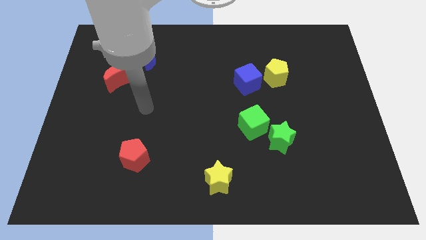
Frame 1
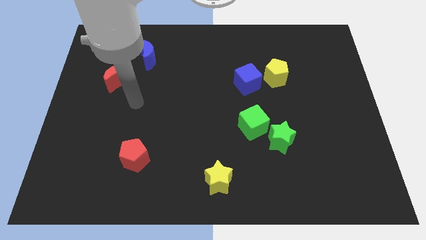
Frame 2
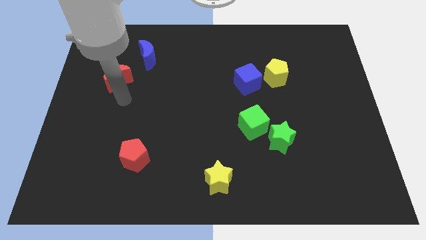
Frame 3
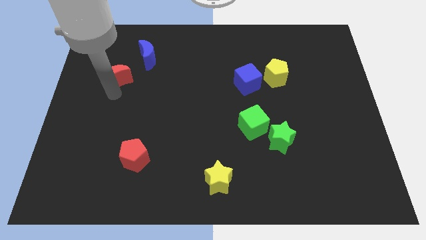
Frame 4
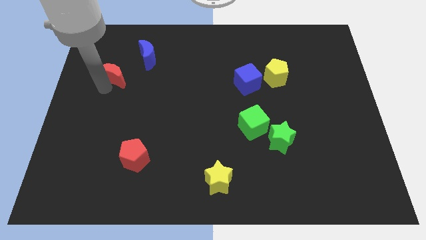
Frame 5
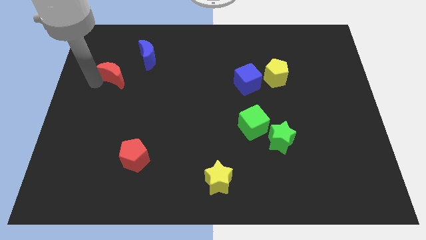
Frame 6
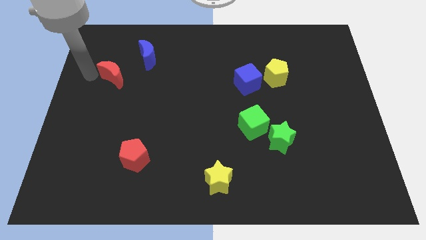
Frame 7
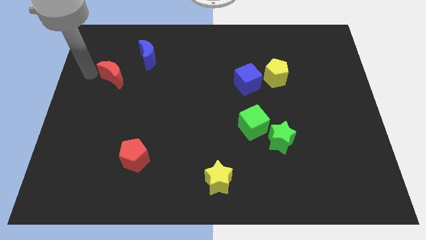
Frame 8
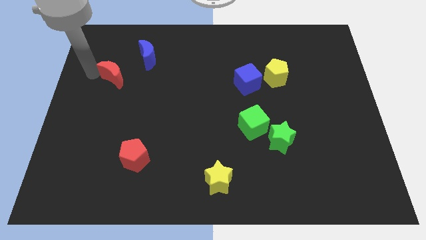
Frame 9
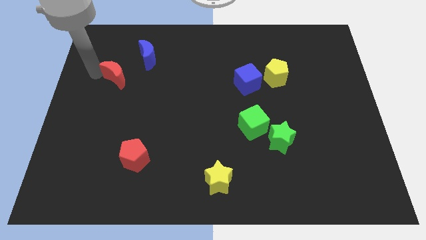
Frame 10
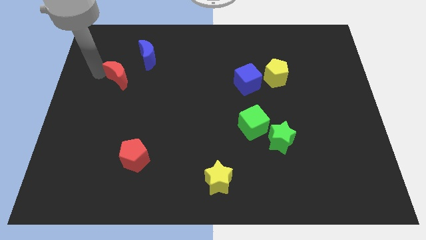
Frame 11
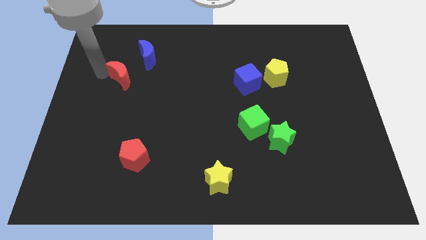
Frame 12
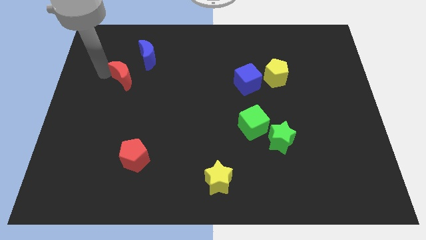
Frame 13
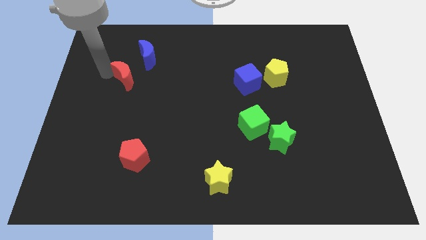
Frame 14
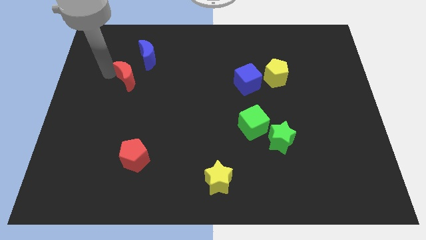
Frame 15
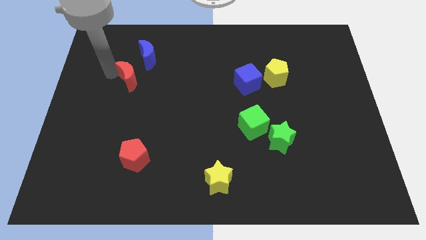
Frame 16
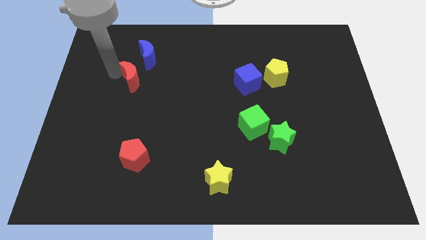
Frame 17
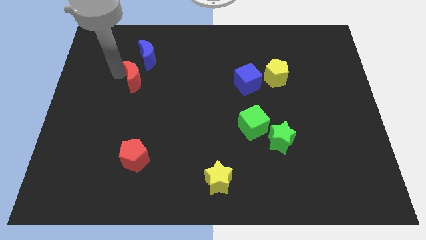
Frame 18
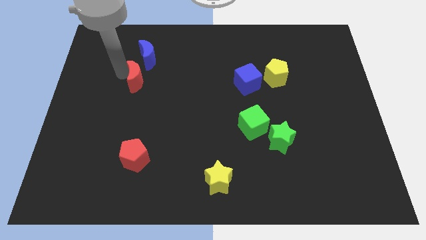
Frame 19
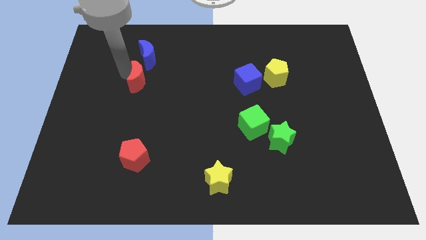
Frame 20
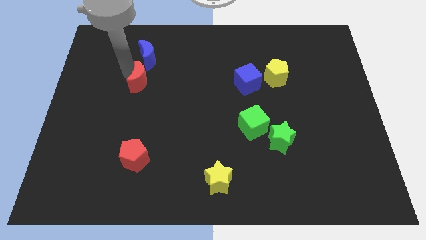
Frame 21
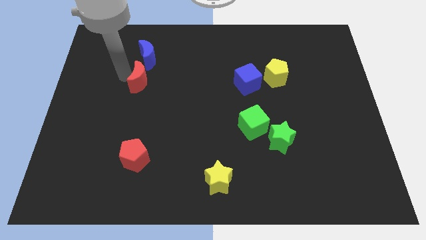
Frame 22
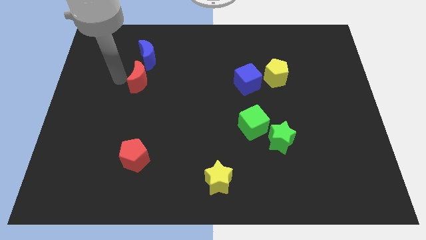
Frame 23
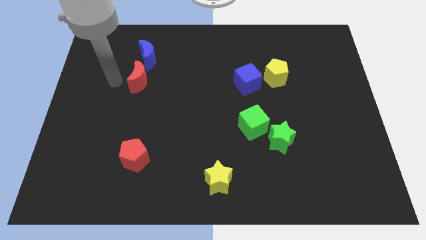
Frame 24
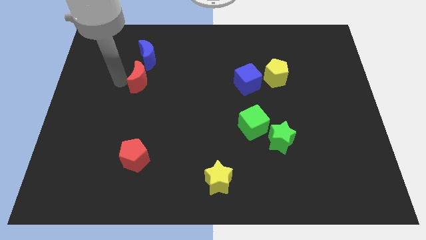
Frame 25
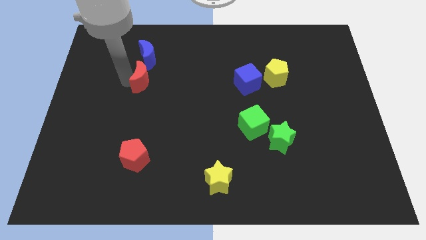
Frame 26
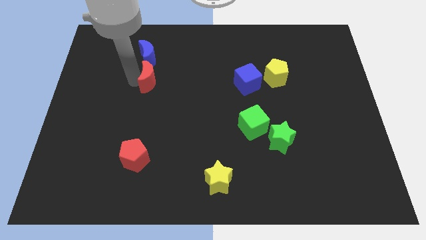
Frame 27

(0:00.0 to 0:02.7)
move the red moon a little right

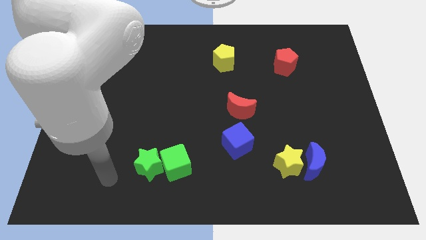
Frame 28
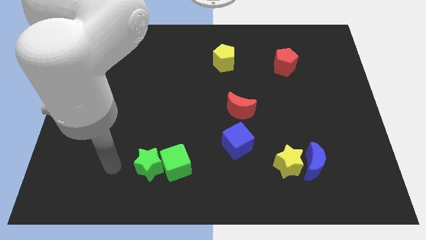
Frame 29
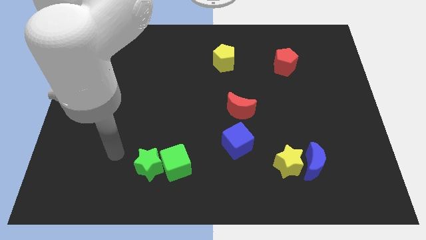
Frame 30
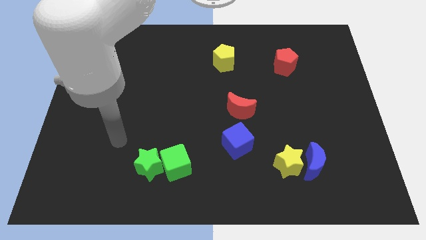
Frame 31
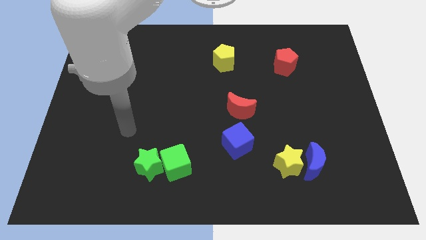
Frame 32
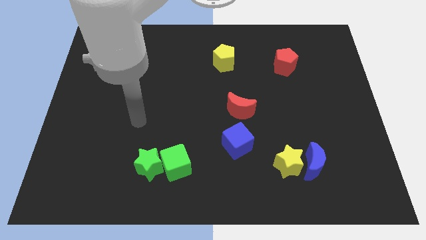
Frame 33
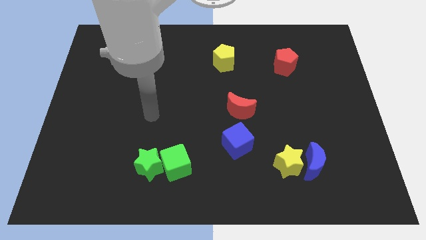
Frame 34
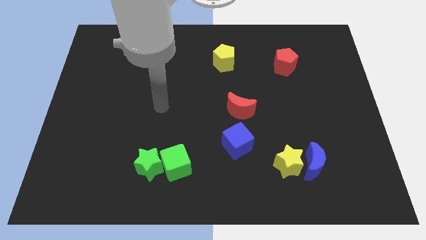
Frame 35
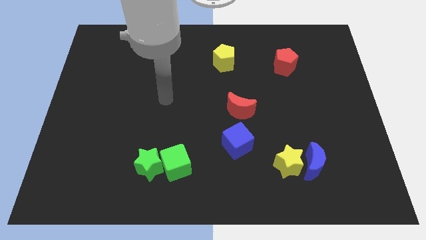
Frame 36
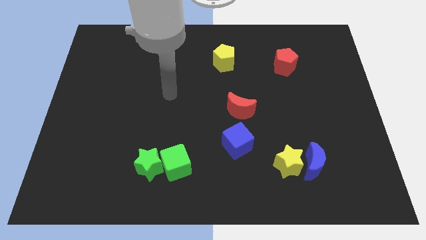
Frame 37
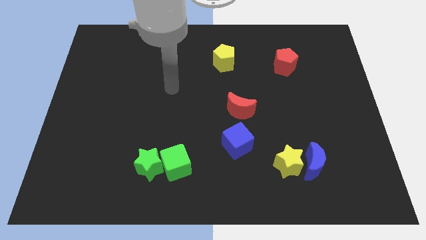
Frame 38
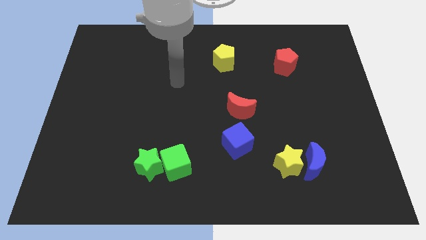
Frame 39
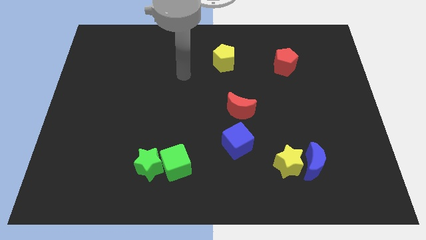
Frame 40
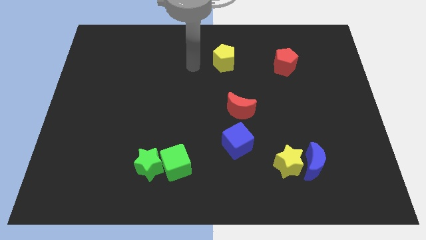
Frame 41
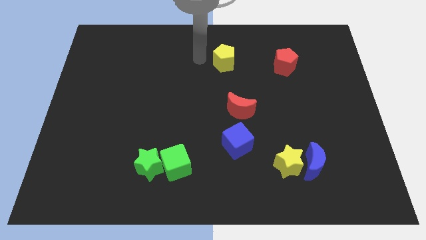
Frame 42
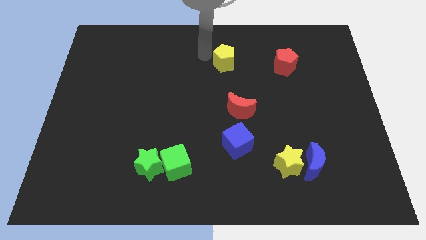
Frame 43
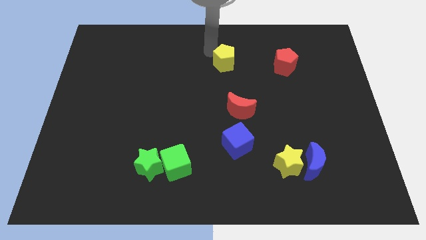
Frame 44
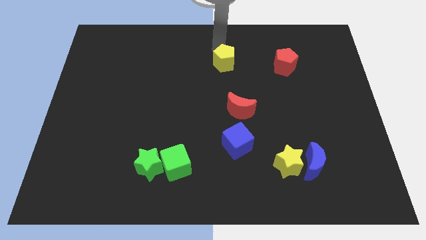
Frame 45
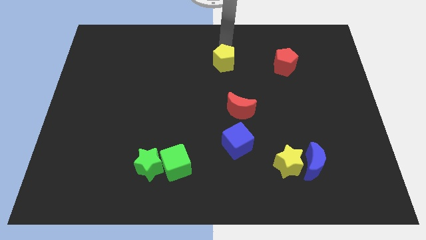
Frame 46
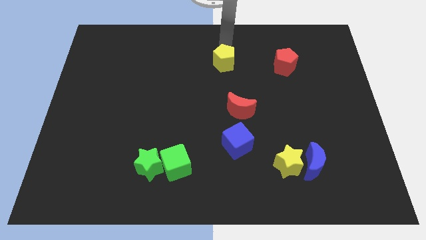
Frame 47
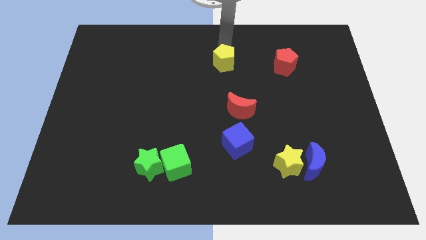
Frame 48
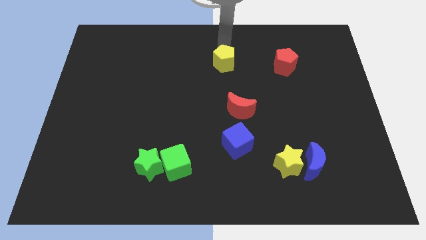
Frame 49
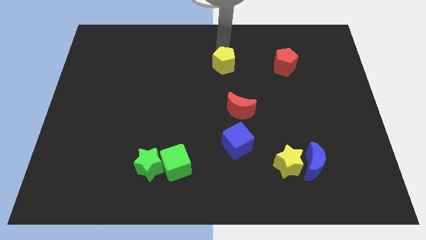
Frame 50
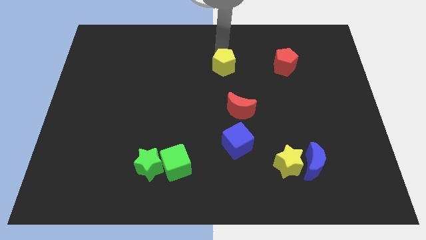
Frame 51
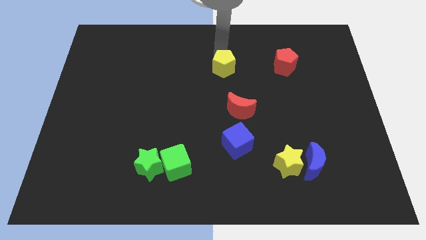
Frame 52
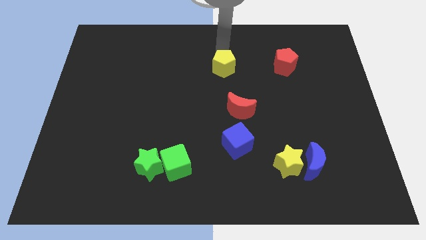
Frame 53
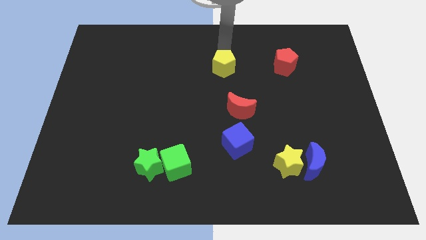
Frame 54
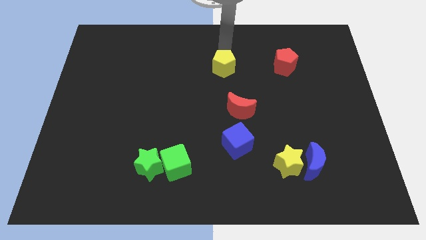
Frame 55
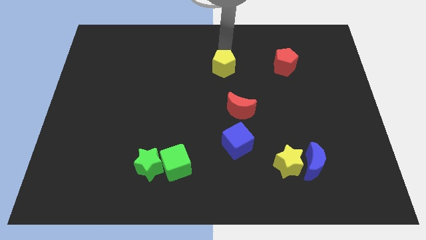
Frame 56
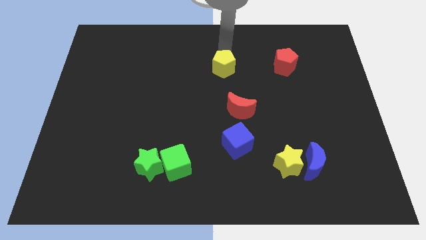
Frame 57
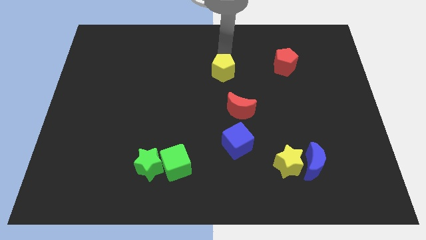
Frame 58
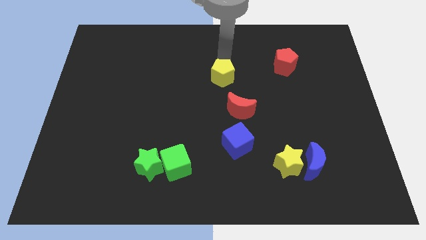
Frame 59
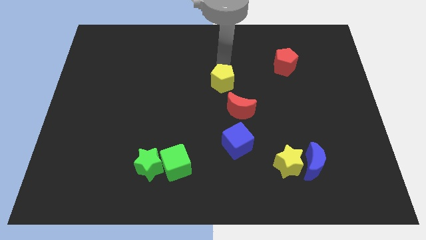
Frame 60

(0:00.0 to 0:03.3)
move the yellow pentagon down a little bit

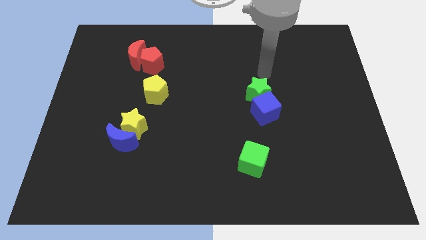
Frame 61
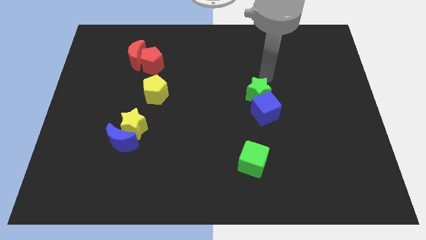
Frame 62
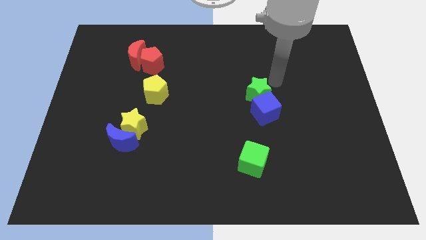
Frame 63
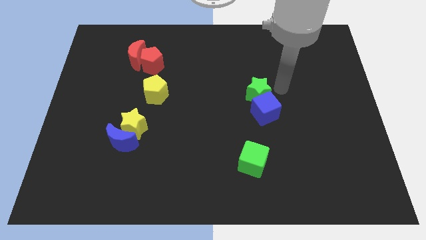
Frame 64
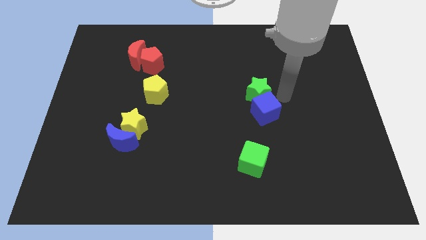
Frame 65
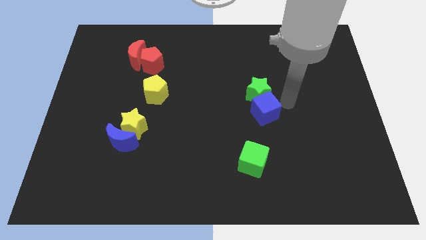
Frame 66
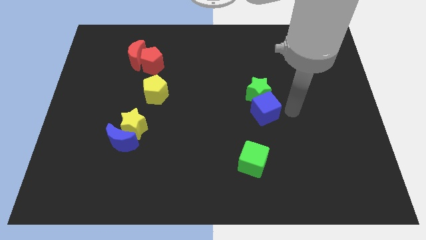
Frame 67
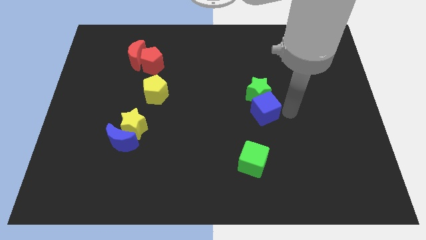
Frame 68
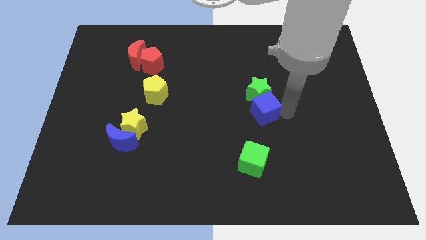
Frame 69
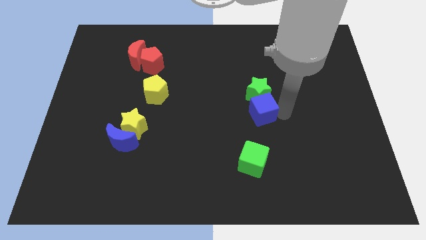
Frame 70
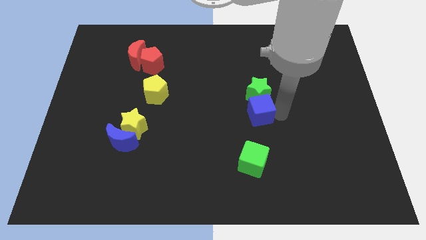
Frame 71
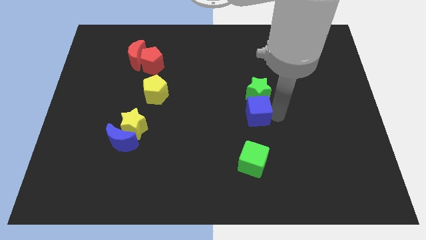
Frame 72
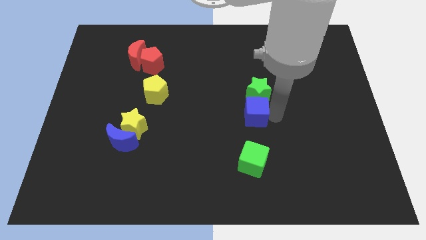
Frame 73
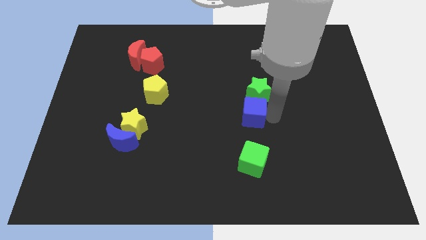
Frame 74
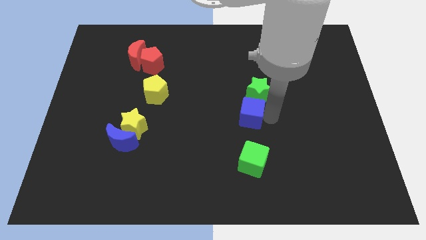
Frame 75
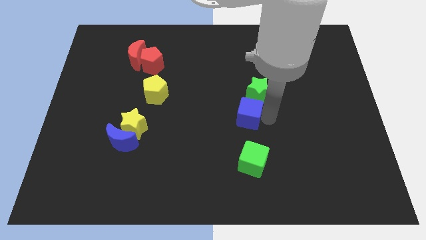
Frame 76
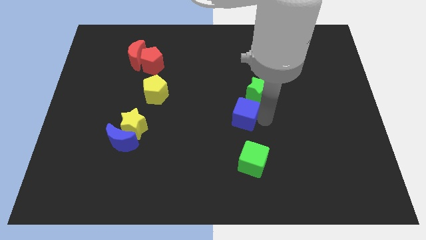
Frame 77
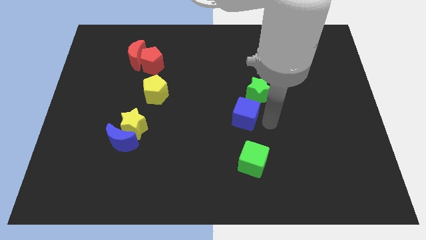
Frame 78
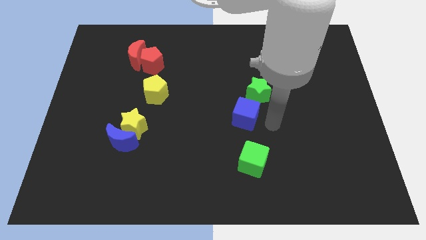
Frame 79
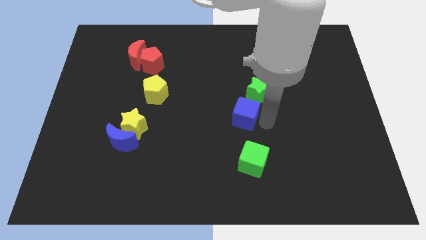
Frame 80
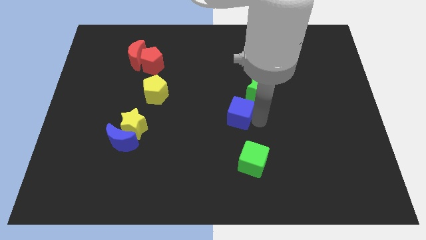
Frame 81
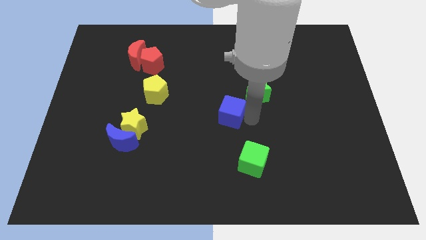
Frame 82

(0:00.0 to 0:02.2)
slightly slide the blue cube to the left
